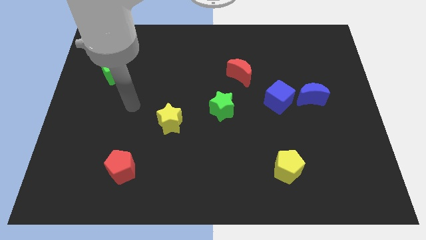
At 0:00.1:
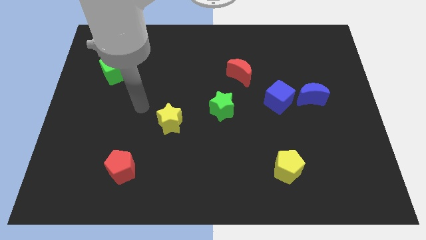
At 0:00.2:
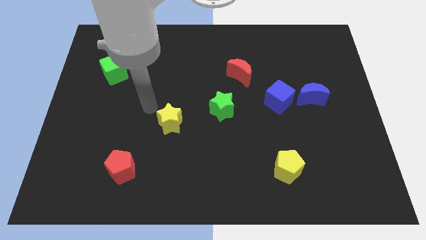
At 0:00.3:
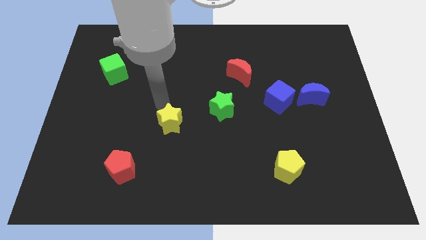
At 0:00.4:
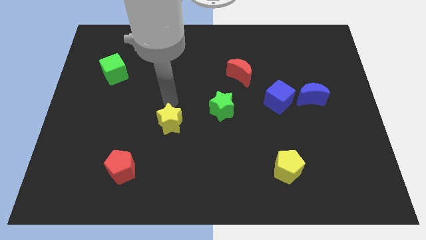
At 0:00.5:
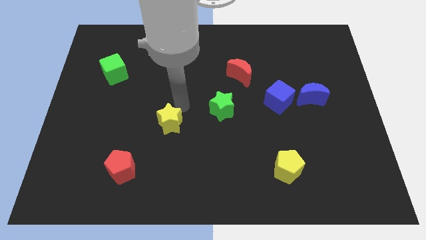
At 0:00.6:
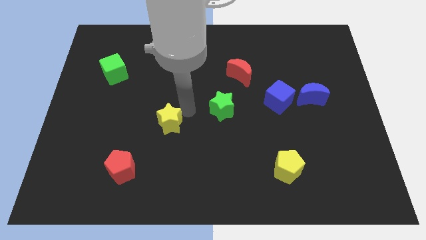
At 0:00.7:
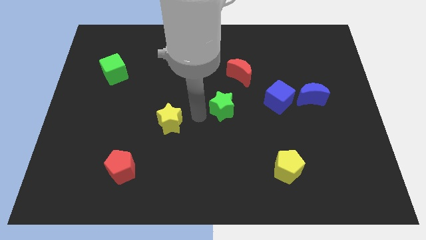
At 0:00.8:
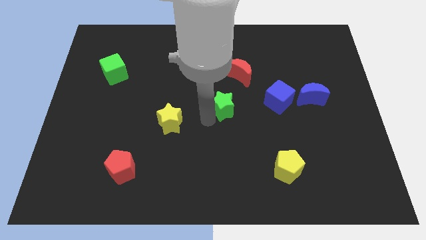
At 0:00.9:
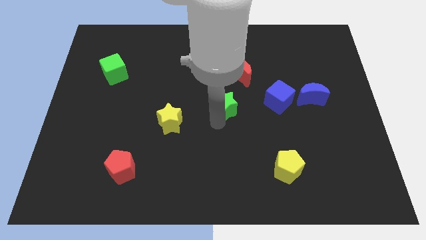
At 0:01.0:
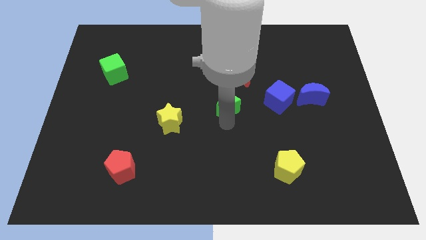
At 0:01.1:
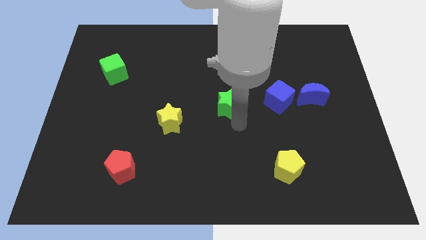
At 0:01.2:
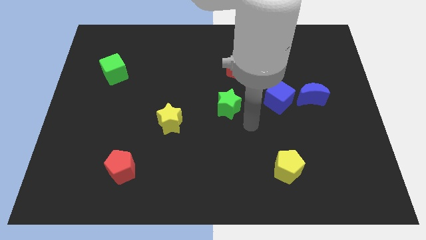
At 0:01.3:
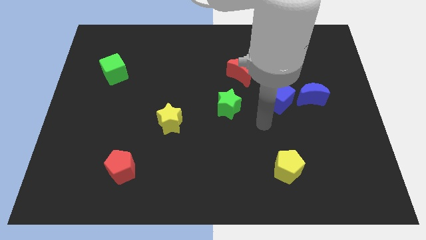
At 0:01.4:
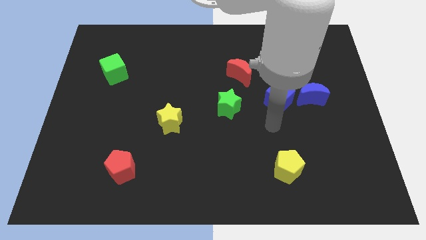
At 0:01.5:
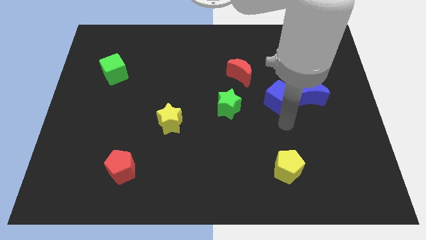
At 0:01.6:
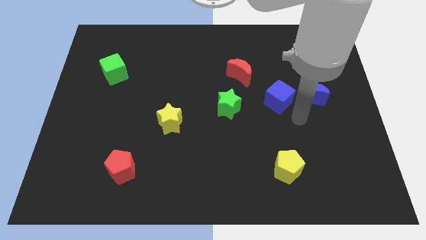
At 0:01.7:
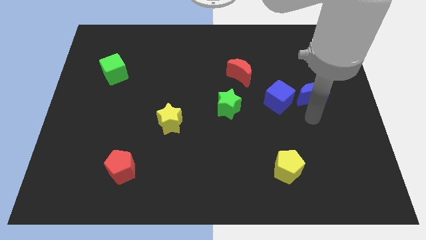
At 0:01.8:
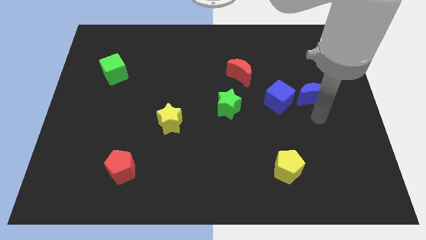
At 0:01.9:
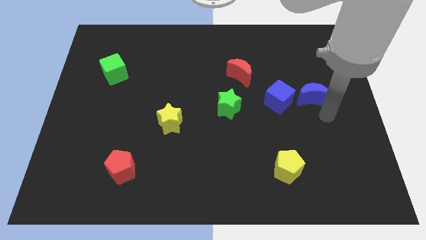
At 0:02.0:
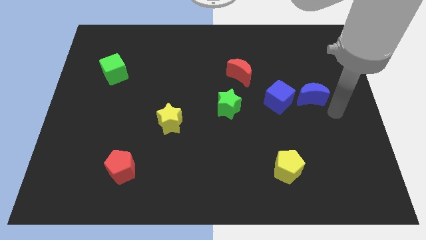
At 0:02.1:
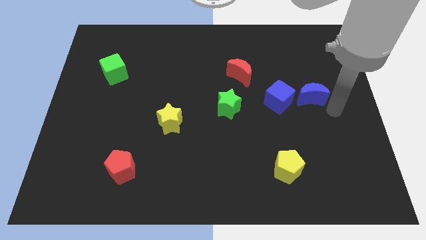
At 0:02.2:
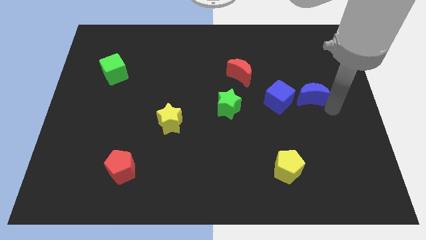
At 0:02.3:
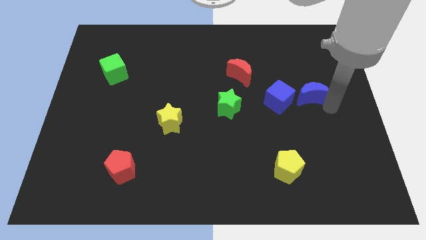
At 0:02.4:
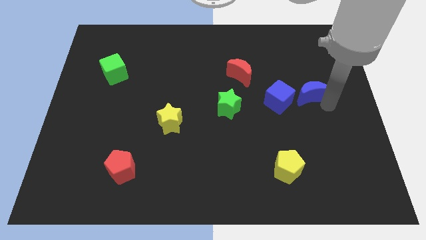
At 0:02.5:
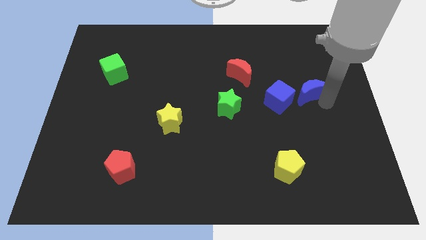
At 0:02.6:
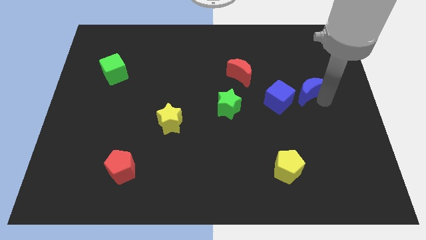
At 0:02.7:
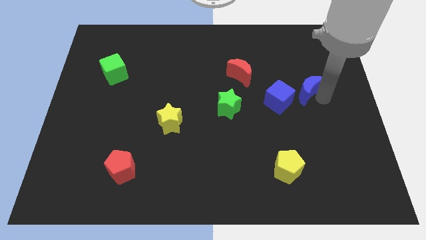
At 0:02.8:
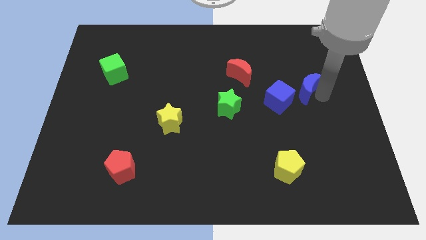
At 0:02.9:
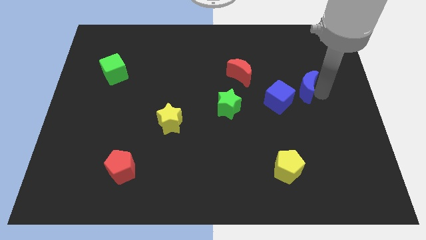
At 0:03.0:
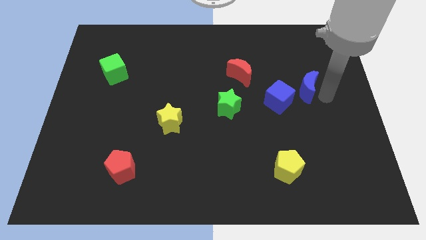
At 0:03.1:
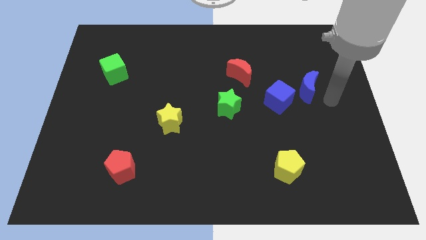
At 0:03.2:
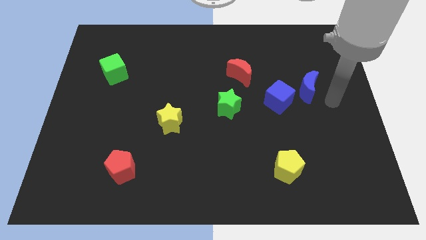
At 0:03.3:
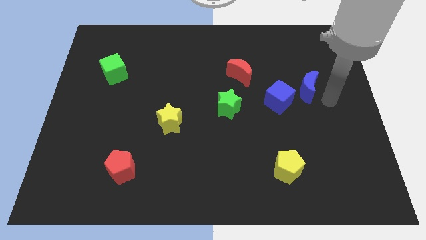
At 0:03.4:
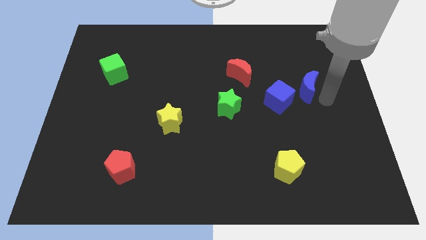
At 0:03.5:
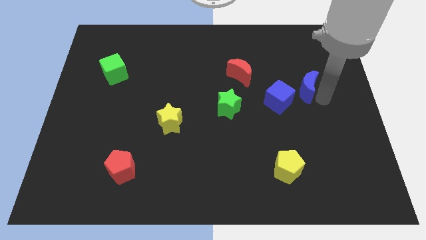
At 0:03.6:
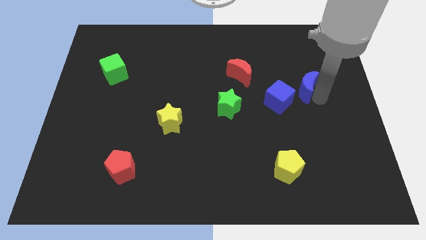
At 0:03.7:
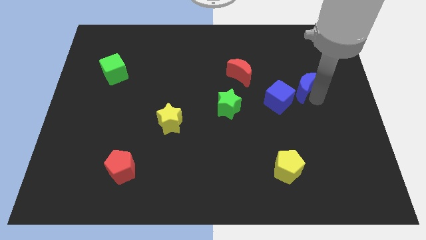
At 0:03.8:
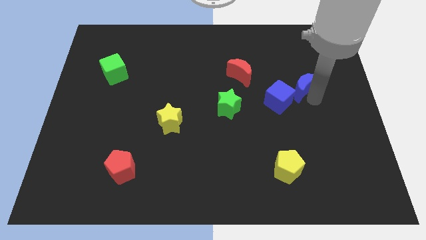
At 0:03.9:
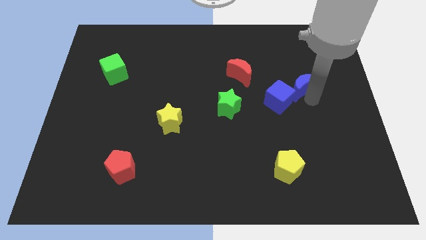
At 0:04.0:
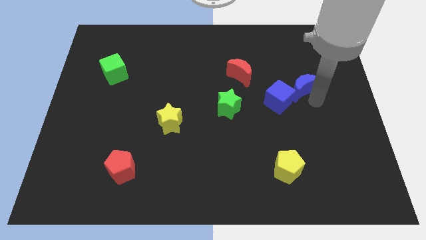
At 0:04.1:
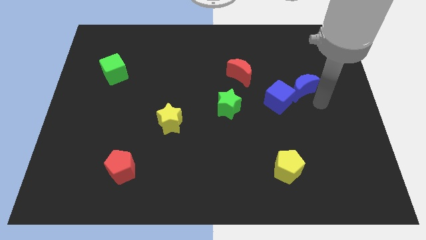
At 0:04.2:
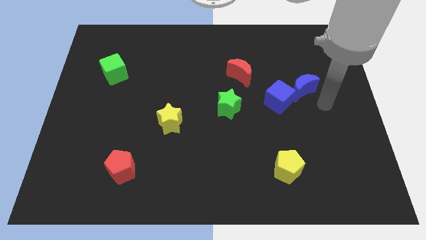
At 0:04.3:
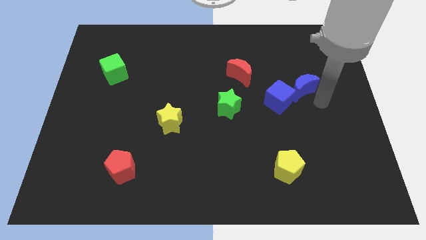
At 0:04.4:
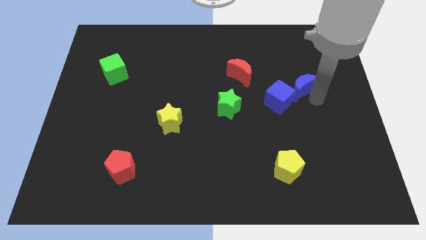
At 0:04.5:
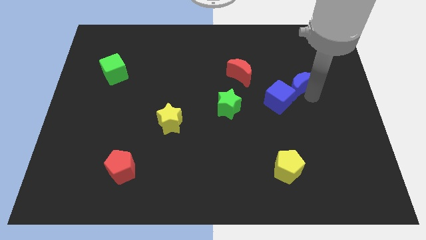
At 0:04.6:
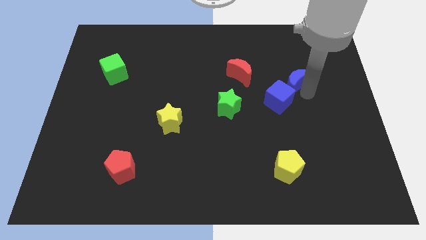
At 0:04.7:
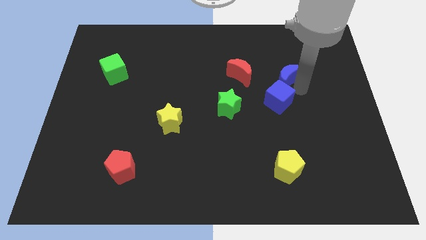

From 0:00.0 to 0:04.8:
move the blue moon a little bit upwards and left

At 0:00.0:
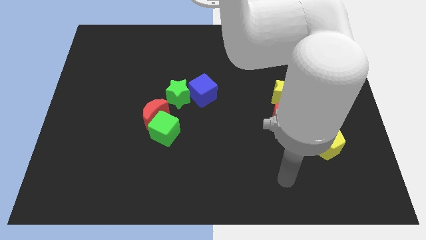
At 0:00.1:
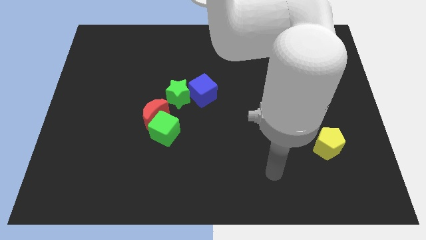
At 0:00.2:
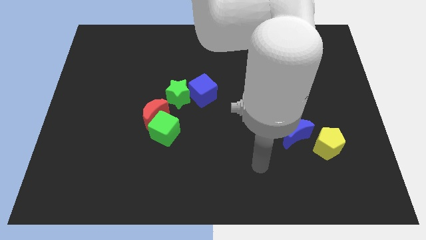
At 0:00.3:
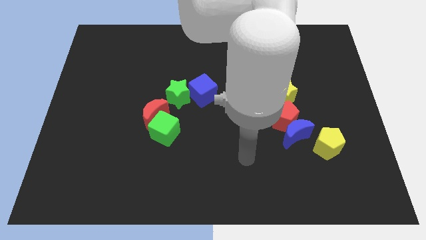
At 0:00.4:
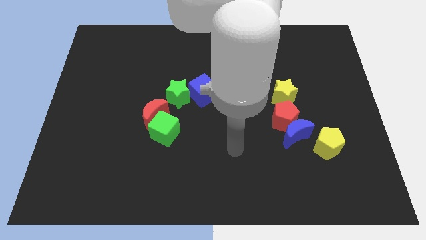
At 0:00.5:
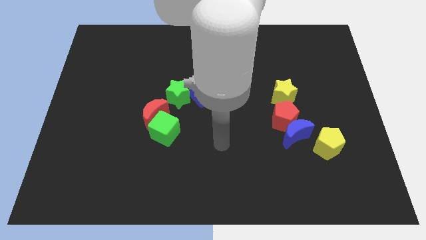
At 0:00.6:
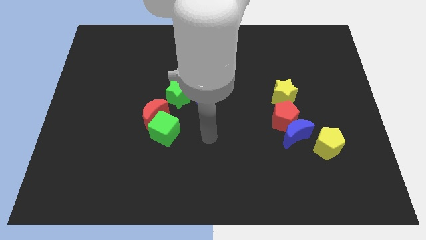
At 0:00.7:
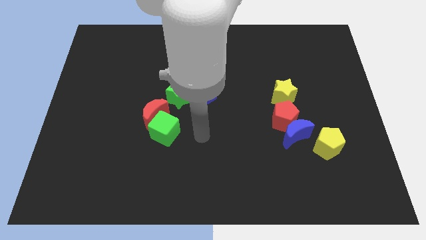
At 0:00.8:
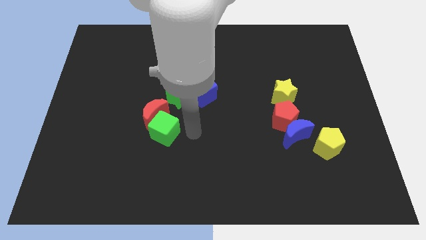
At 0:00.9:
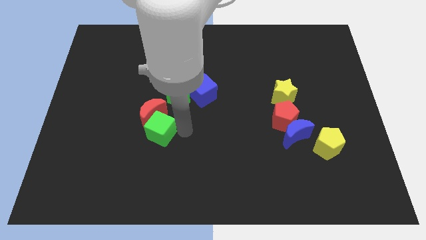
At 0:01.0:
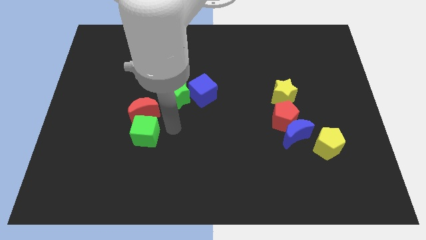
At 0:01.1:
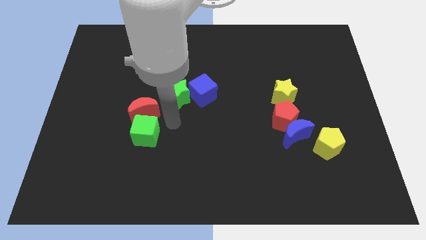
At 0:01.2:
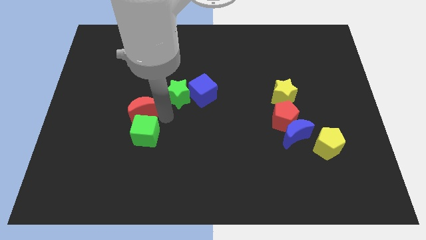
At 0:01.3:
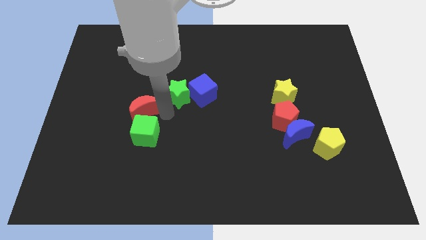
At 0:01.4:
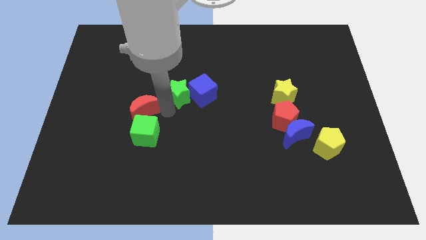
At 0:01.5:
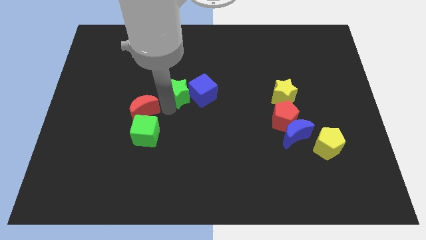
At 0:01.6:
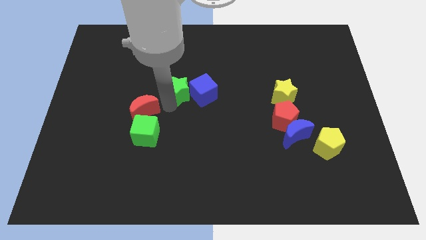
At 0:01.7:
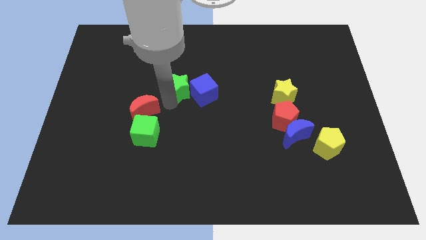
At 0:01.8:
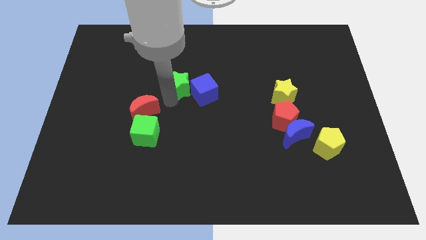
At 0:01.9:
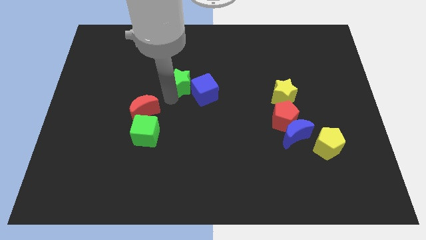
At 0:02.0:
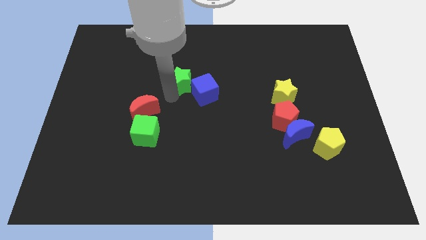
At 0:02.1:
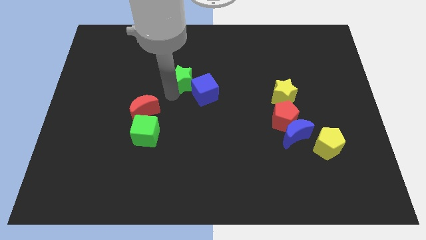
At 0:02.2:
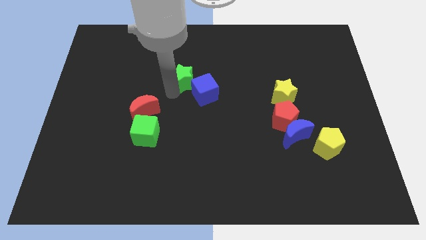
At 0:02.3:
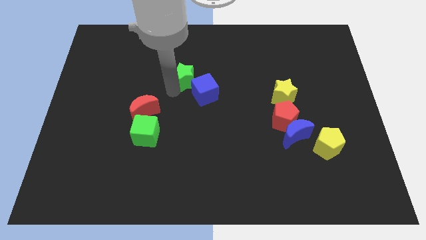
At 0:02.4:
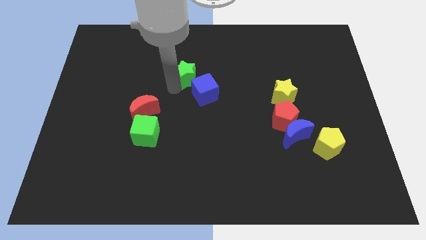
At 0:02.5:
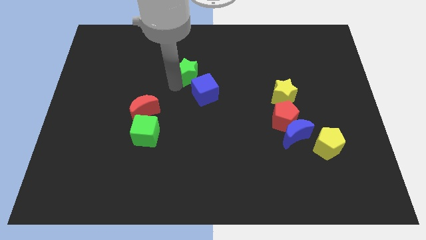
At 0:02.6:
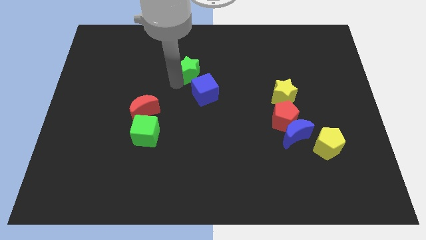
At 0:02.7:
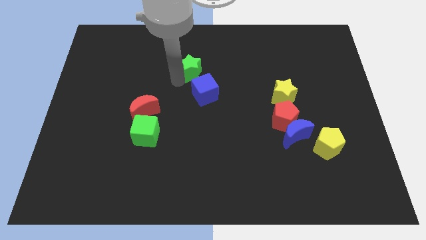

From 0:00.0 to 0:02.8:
slide the green star upwards and to the right diagonally slightly
